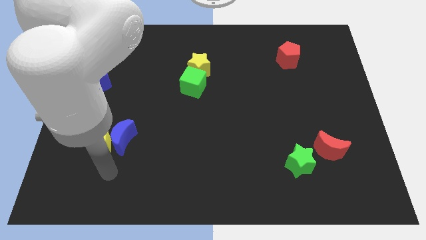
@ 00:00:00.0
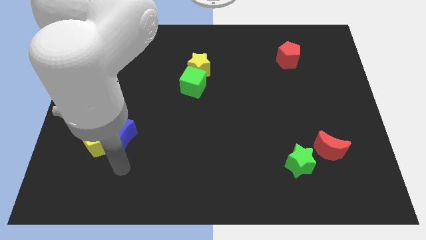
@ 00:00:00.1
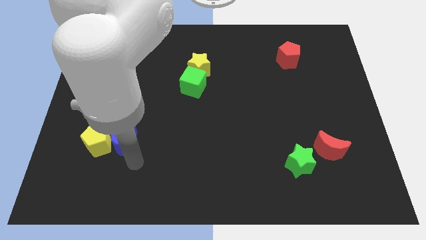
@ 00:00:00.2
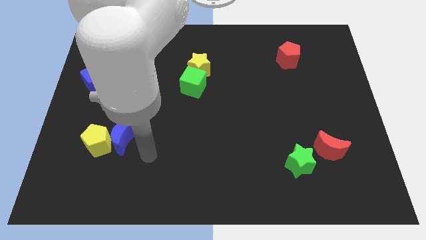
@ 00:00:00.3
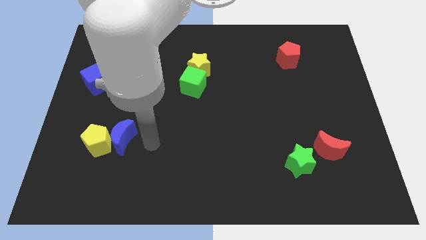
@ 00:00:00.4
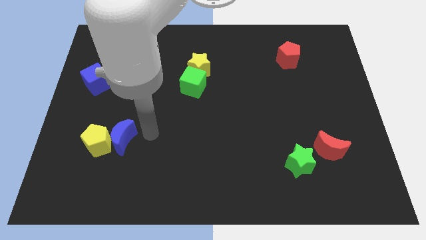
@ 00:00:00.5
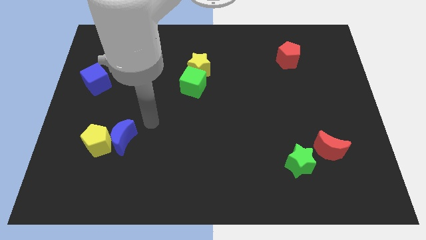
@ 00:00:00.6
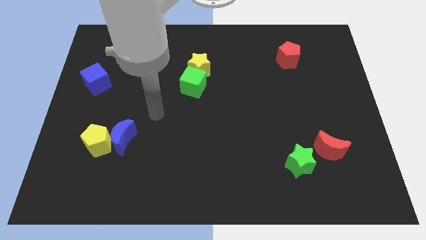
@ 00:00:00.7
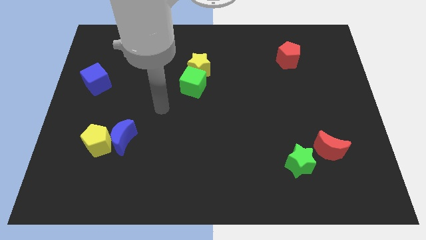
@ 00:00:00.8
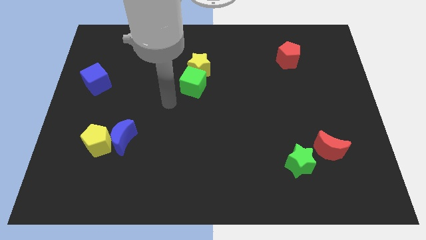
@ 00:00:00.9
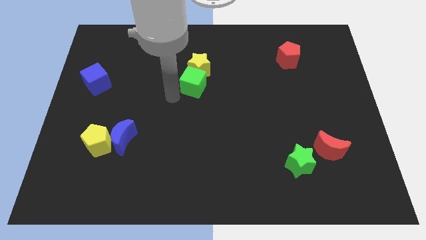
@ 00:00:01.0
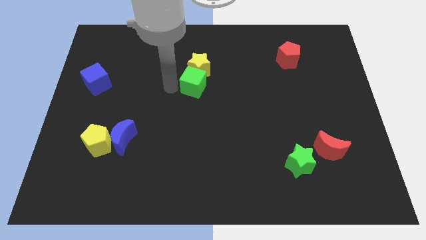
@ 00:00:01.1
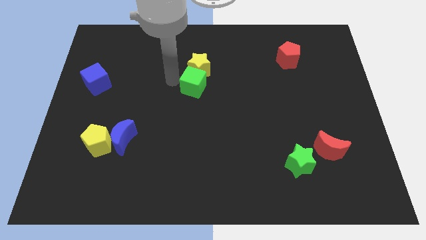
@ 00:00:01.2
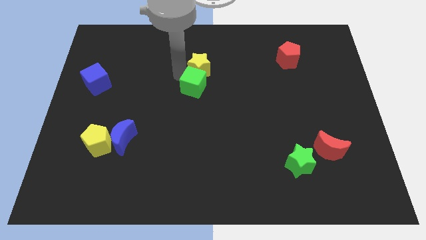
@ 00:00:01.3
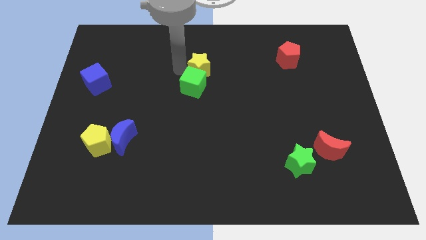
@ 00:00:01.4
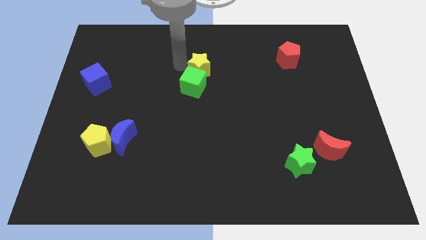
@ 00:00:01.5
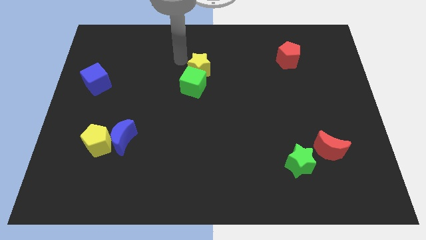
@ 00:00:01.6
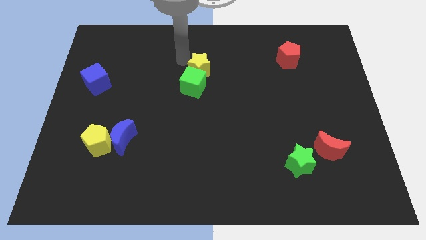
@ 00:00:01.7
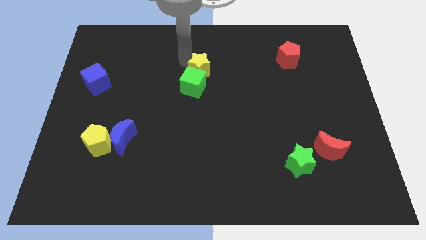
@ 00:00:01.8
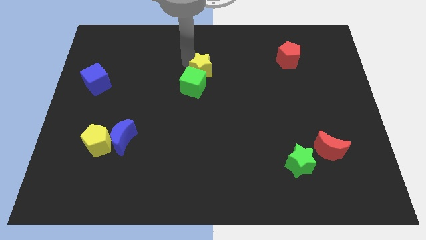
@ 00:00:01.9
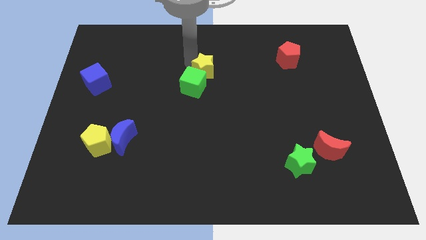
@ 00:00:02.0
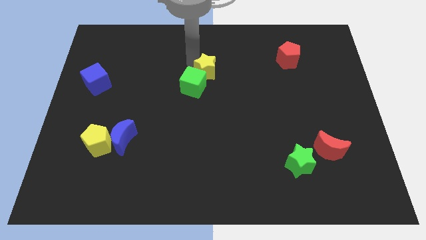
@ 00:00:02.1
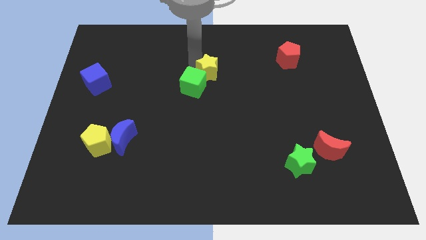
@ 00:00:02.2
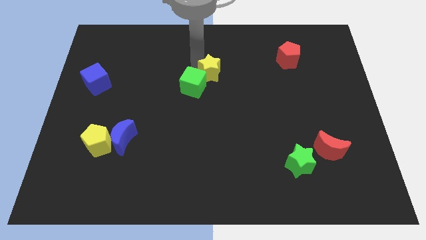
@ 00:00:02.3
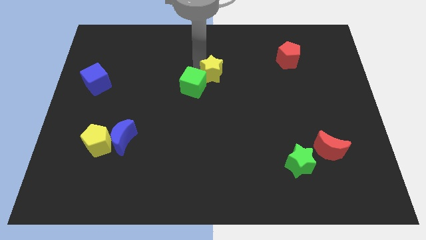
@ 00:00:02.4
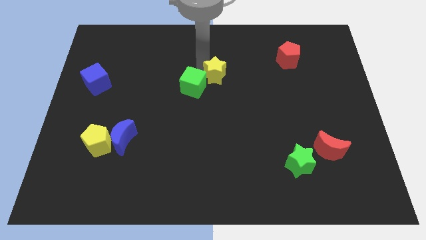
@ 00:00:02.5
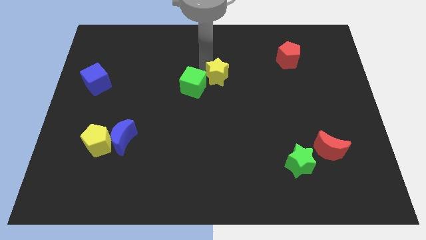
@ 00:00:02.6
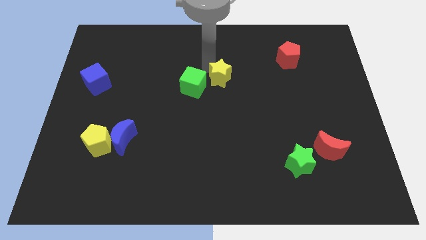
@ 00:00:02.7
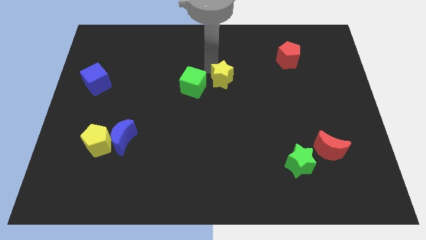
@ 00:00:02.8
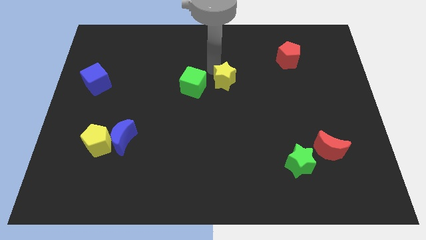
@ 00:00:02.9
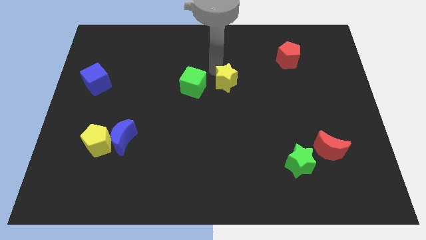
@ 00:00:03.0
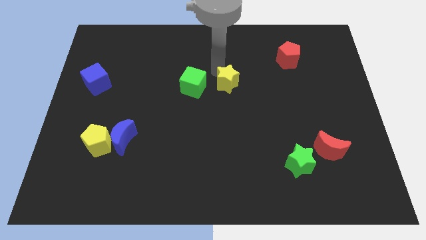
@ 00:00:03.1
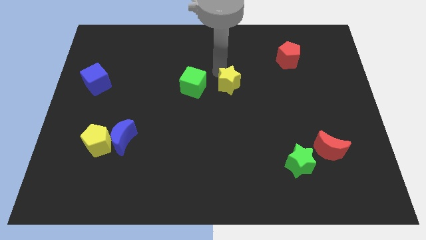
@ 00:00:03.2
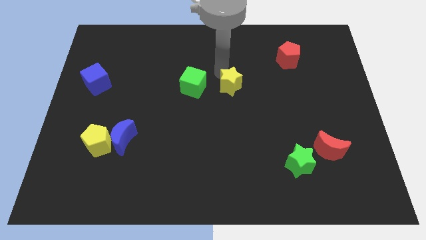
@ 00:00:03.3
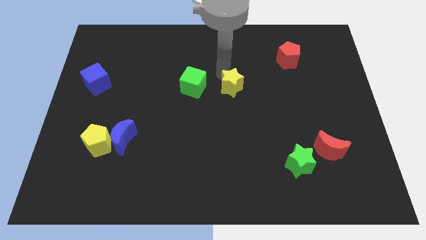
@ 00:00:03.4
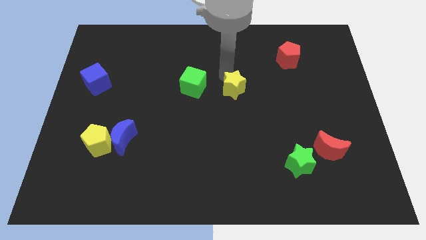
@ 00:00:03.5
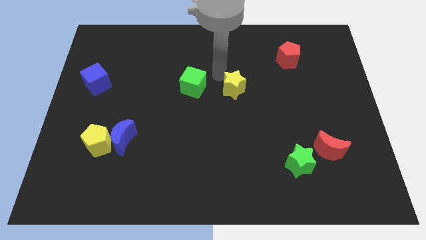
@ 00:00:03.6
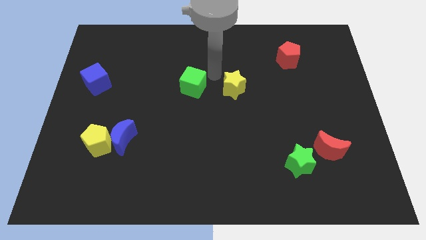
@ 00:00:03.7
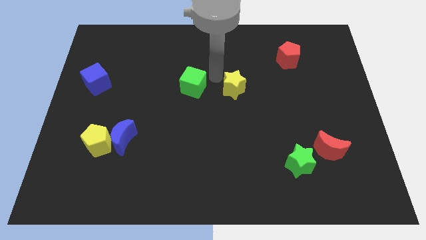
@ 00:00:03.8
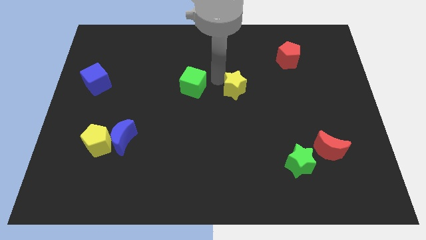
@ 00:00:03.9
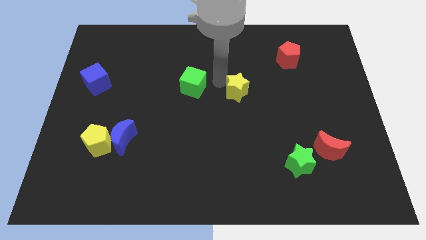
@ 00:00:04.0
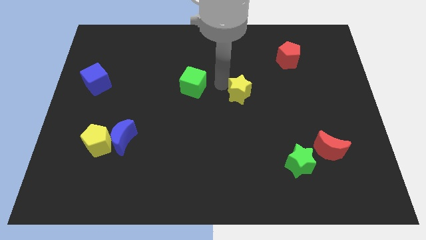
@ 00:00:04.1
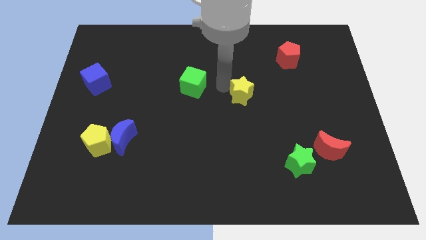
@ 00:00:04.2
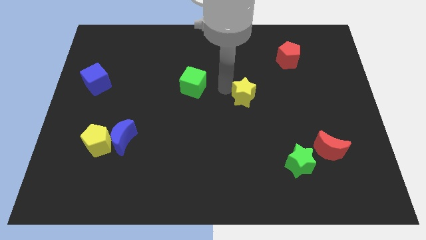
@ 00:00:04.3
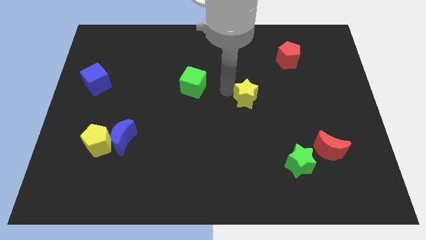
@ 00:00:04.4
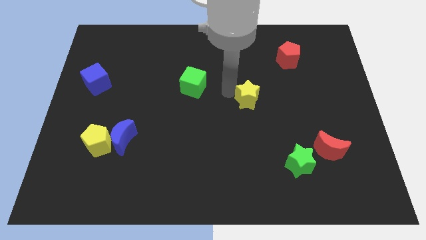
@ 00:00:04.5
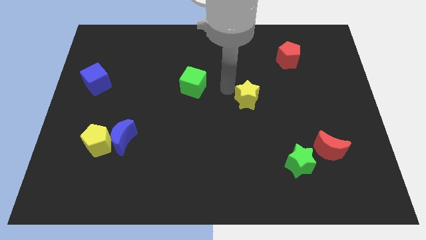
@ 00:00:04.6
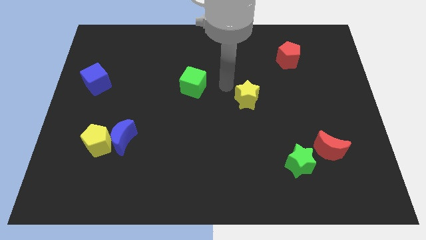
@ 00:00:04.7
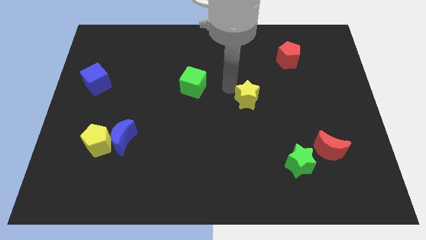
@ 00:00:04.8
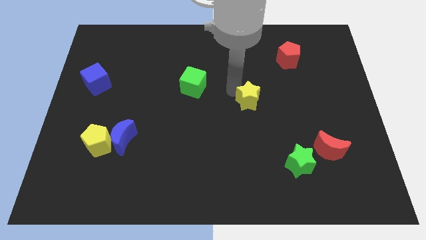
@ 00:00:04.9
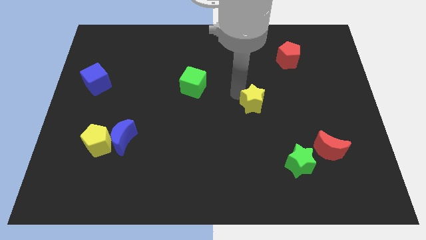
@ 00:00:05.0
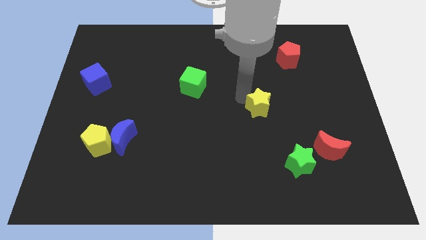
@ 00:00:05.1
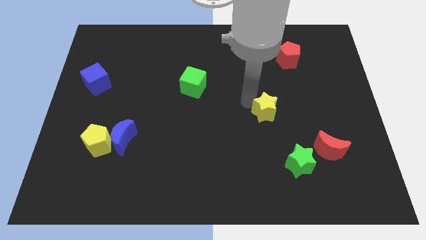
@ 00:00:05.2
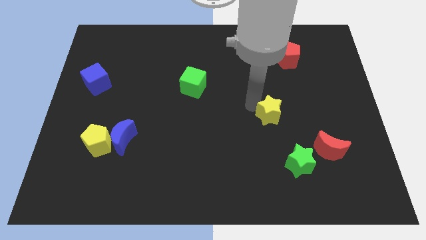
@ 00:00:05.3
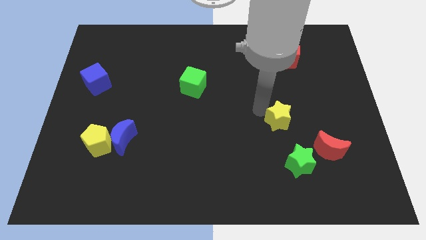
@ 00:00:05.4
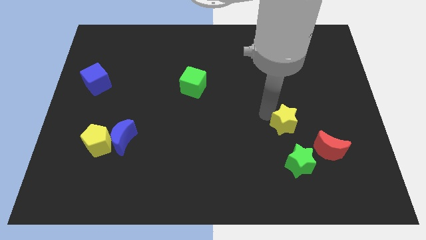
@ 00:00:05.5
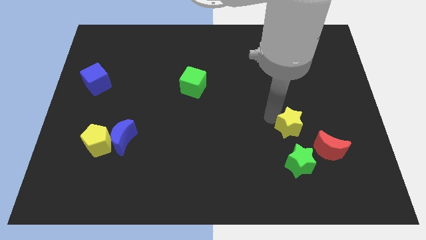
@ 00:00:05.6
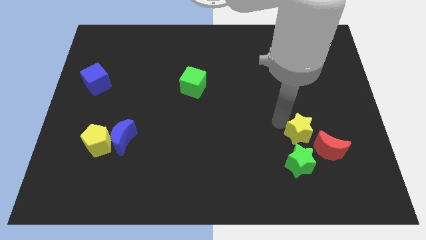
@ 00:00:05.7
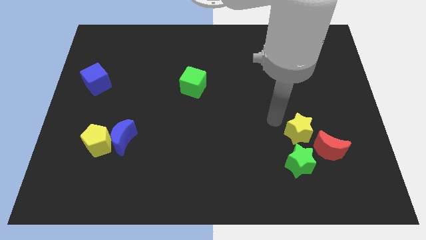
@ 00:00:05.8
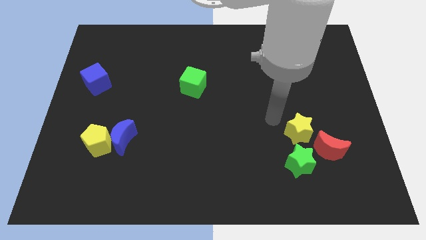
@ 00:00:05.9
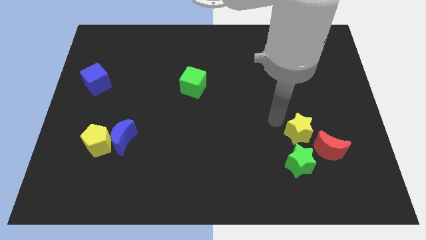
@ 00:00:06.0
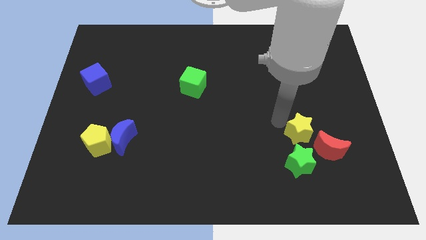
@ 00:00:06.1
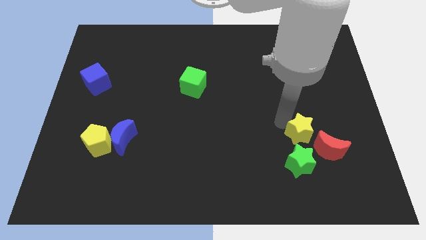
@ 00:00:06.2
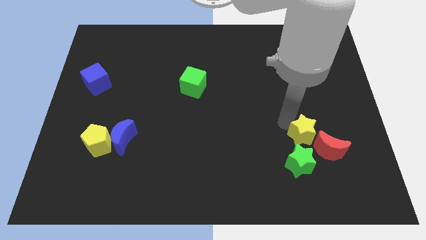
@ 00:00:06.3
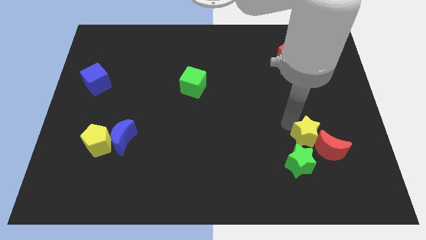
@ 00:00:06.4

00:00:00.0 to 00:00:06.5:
push the yellow star towards the red moon

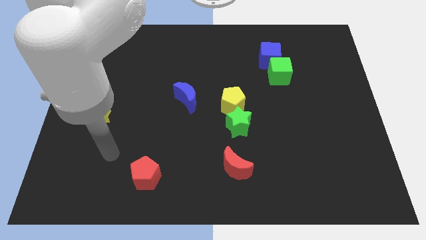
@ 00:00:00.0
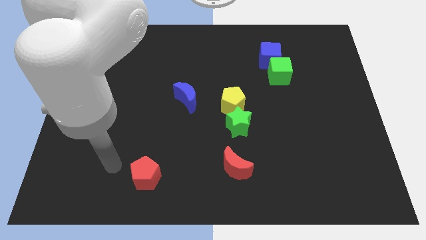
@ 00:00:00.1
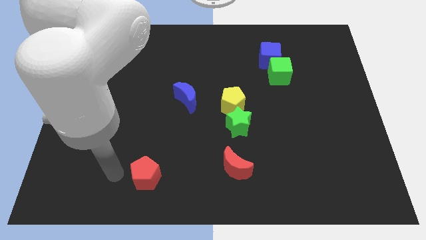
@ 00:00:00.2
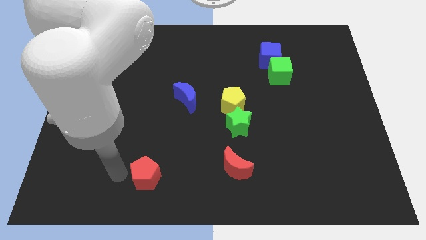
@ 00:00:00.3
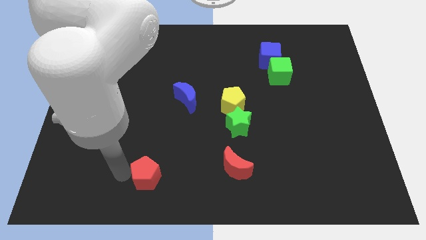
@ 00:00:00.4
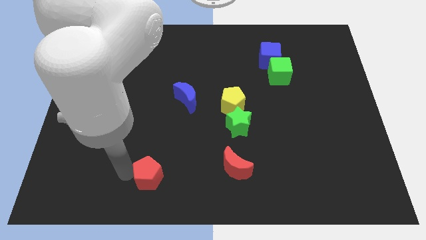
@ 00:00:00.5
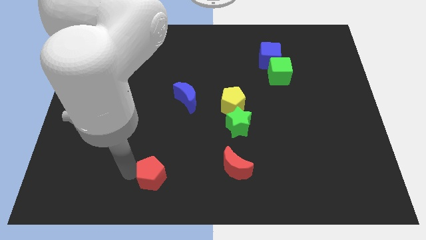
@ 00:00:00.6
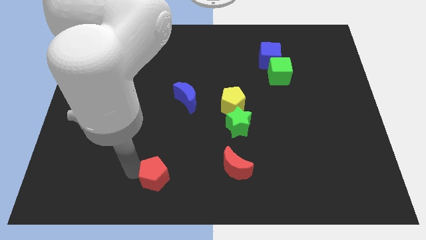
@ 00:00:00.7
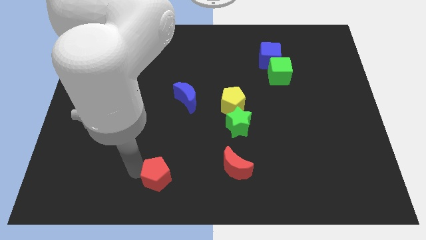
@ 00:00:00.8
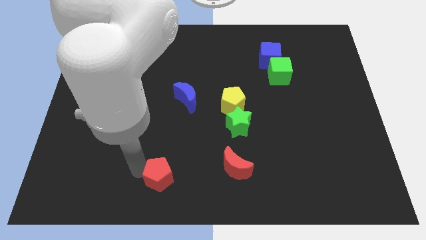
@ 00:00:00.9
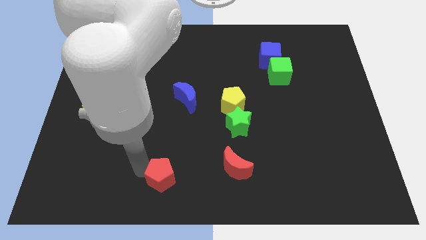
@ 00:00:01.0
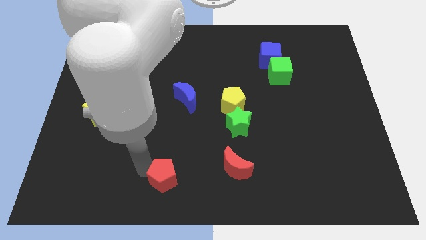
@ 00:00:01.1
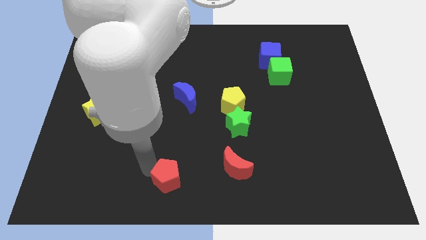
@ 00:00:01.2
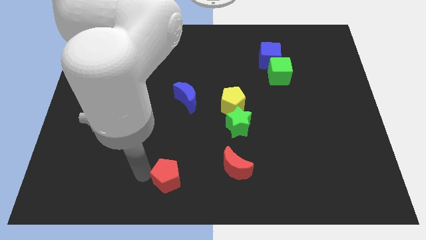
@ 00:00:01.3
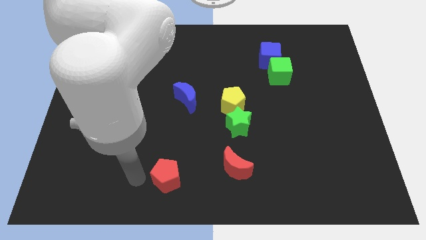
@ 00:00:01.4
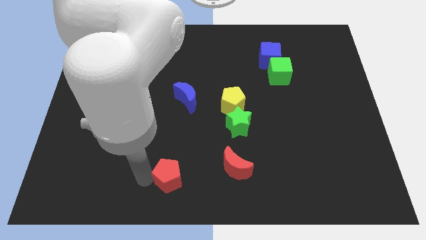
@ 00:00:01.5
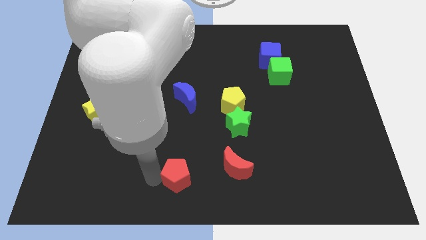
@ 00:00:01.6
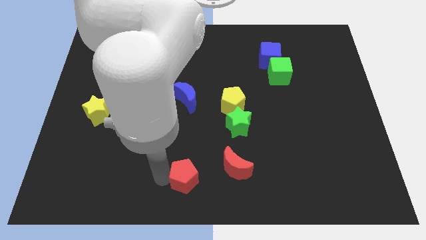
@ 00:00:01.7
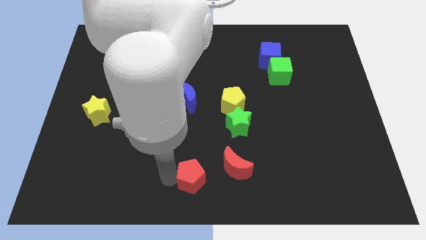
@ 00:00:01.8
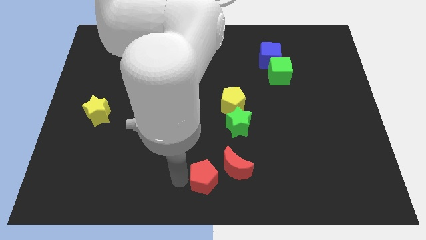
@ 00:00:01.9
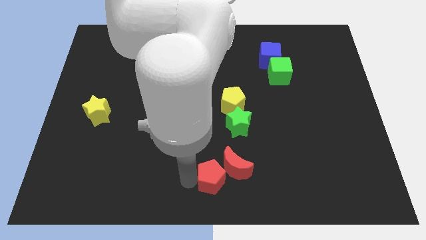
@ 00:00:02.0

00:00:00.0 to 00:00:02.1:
put the red pentagon close to the red moon
